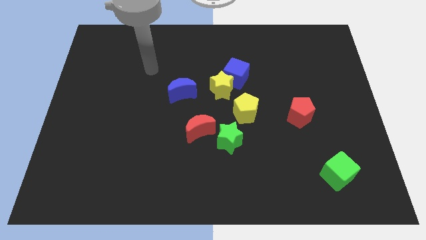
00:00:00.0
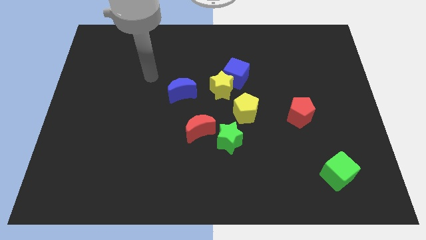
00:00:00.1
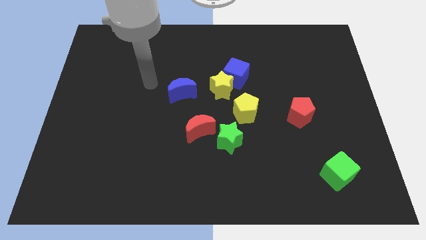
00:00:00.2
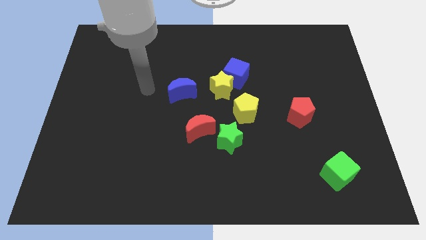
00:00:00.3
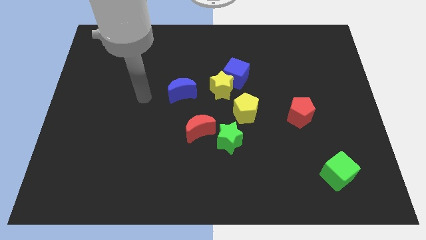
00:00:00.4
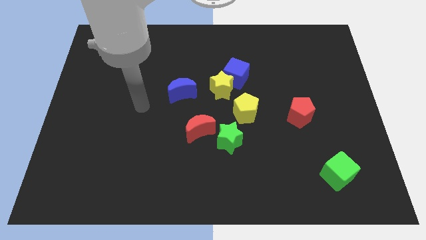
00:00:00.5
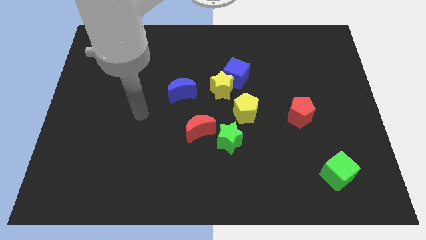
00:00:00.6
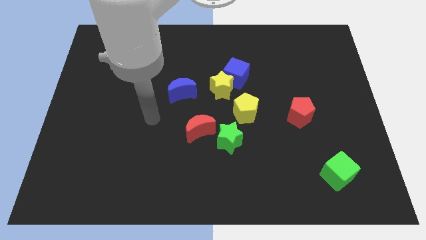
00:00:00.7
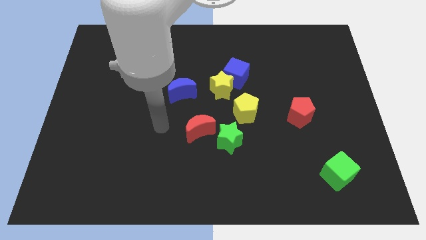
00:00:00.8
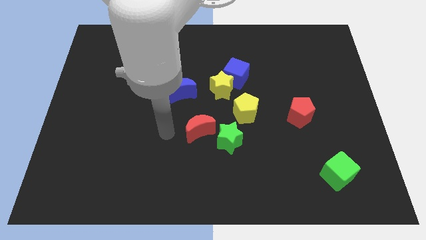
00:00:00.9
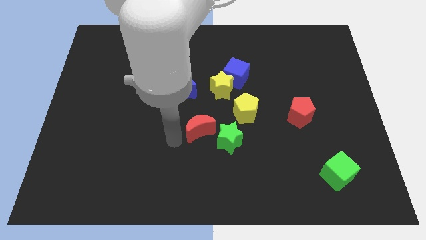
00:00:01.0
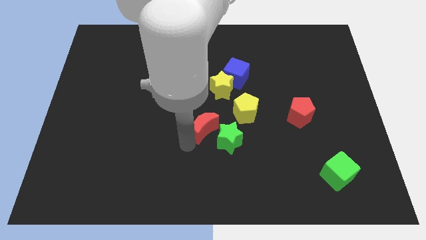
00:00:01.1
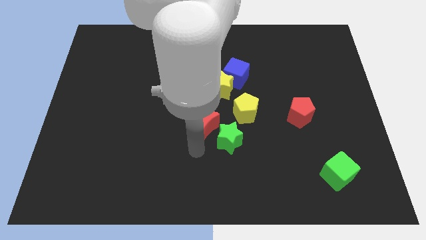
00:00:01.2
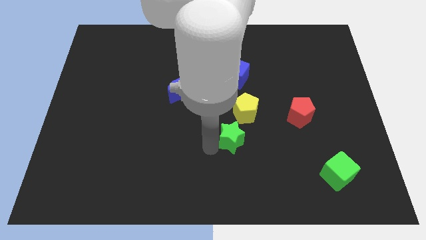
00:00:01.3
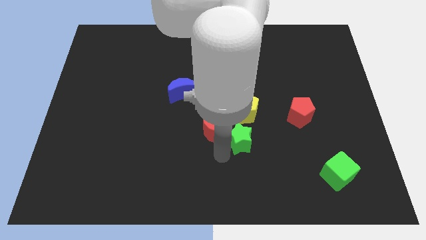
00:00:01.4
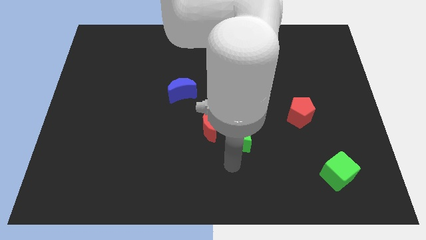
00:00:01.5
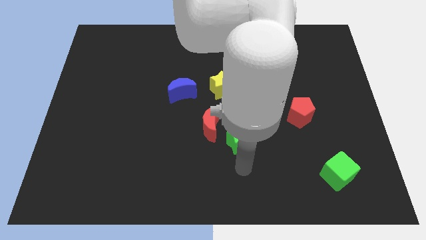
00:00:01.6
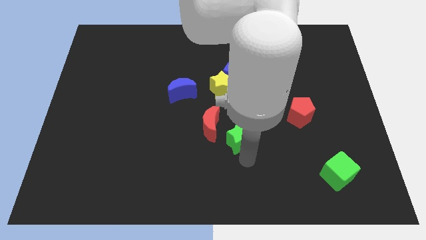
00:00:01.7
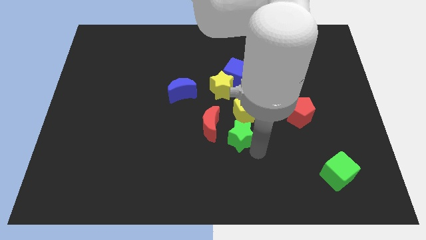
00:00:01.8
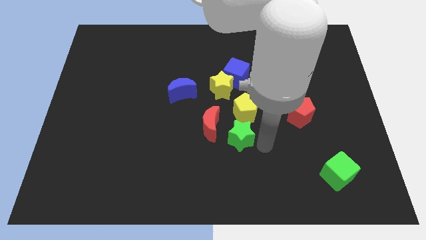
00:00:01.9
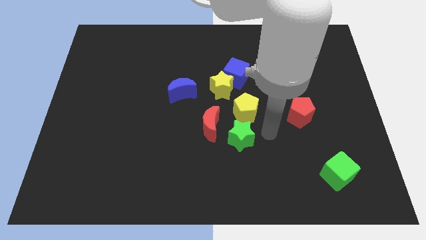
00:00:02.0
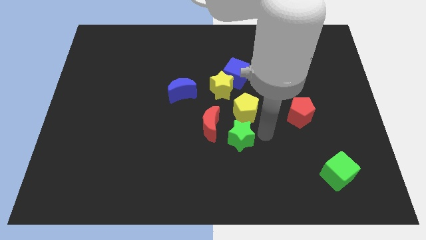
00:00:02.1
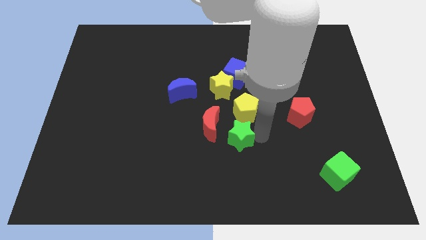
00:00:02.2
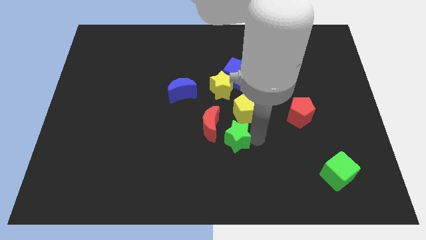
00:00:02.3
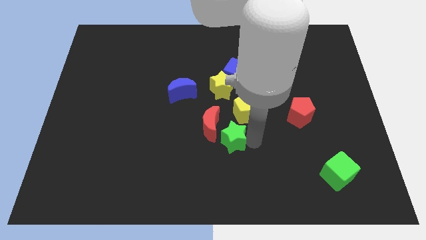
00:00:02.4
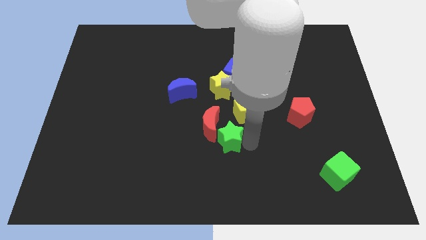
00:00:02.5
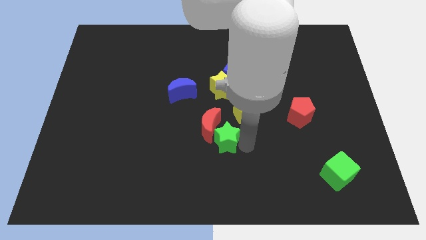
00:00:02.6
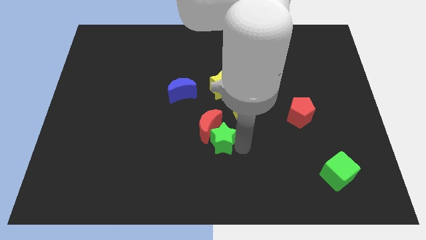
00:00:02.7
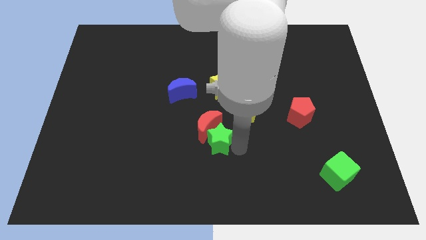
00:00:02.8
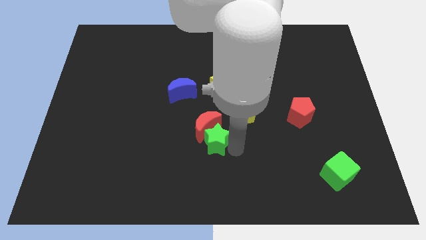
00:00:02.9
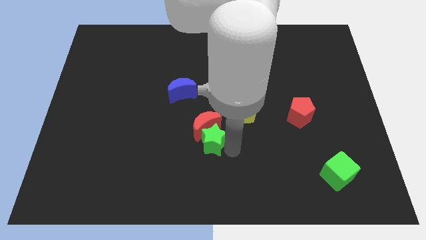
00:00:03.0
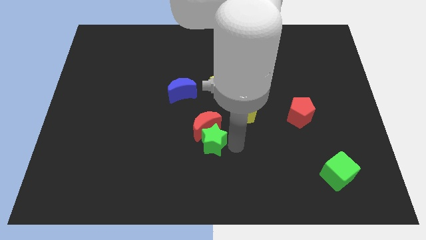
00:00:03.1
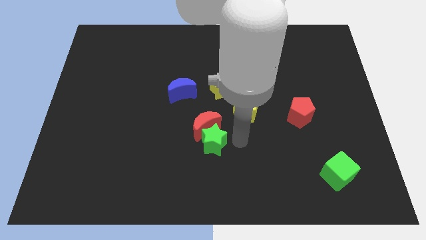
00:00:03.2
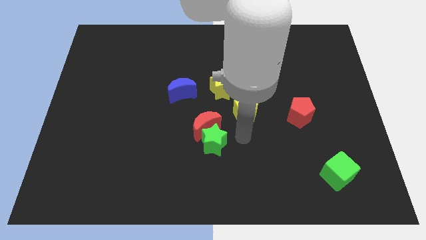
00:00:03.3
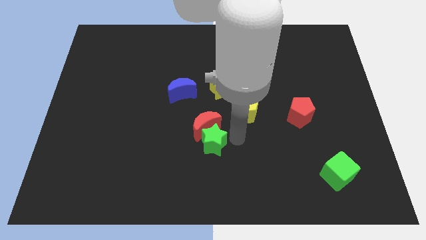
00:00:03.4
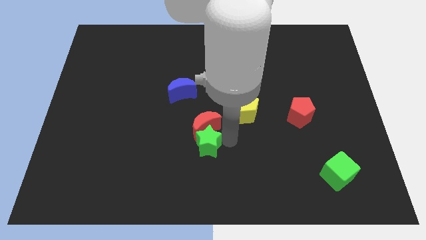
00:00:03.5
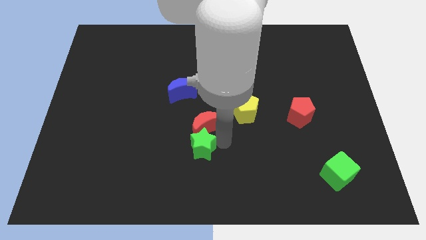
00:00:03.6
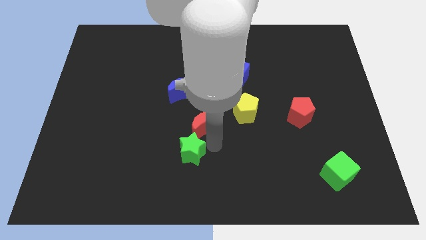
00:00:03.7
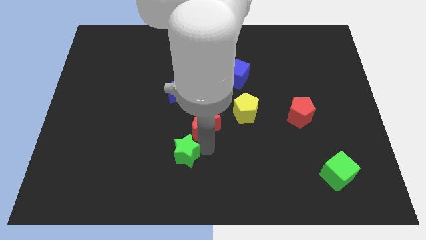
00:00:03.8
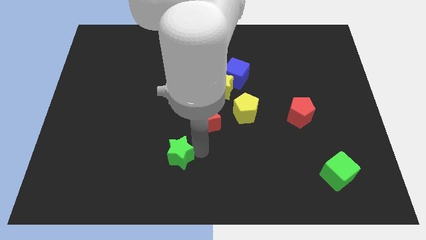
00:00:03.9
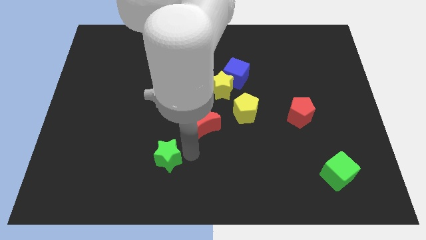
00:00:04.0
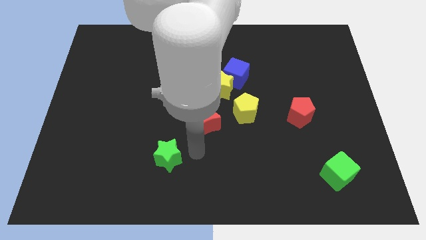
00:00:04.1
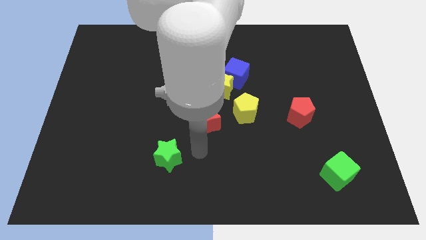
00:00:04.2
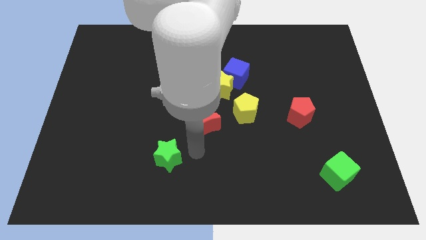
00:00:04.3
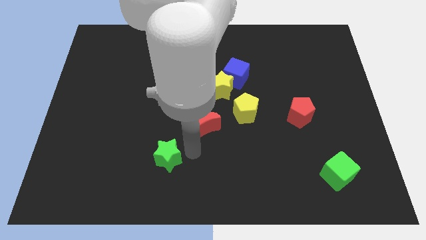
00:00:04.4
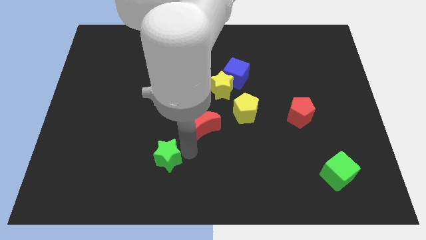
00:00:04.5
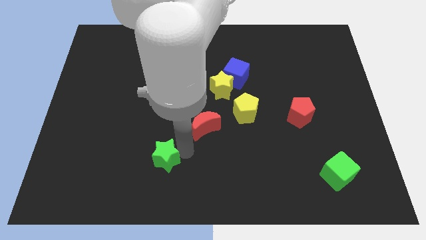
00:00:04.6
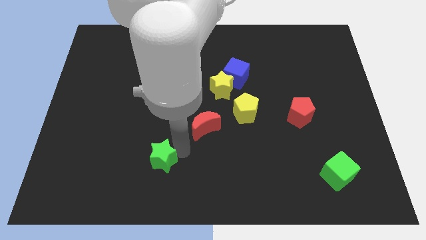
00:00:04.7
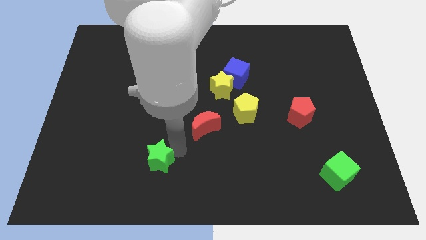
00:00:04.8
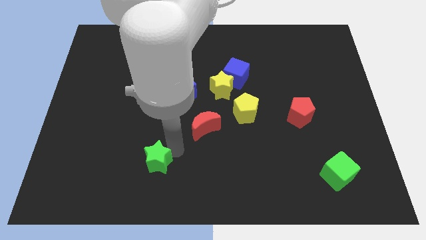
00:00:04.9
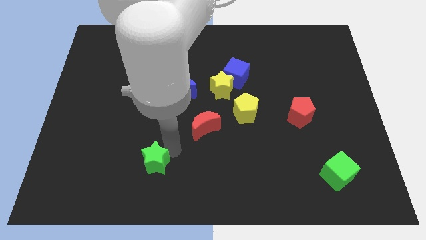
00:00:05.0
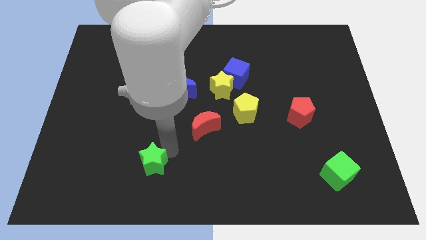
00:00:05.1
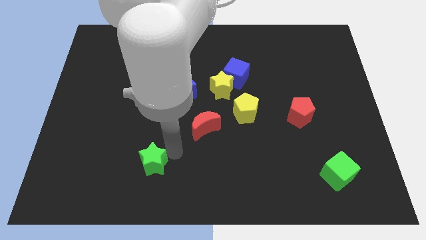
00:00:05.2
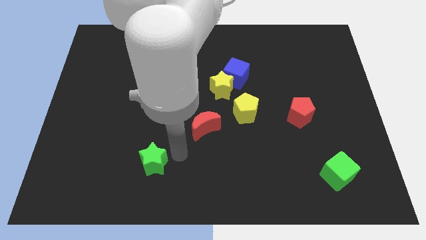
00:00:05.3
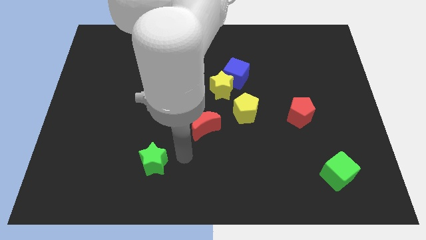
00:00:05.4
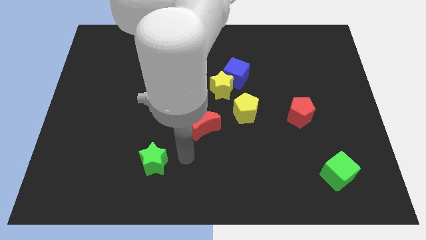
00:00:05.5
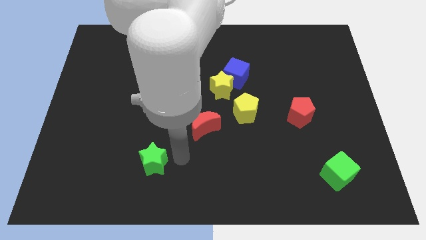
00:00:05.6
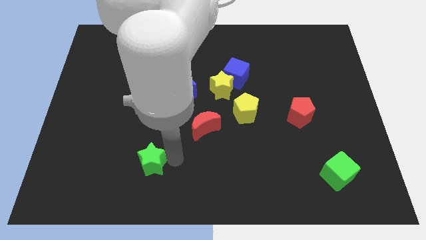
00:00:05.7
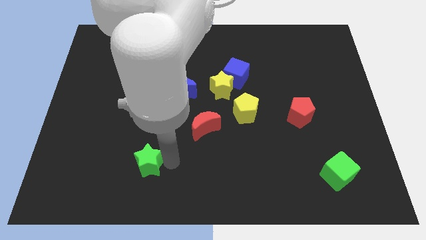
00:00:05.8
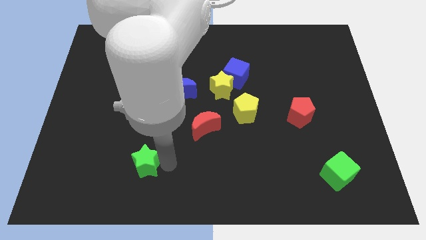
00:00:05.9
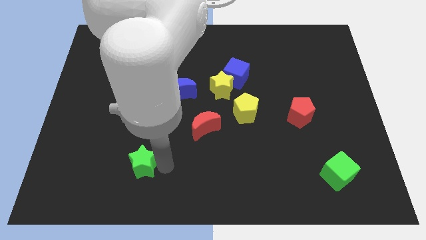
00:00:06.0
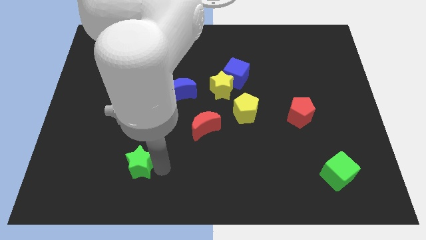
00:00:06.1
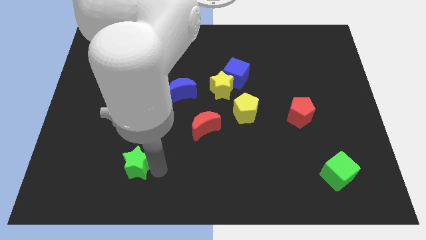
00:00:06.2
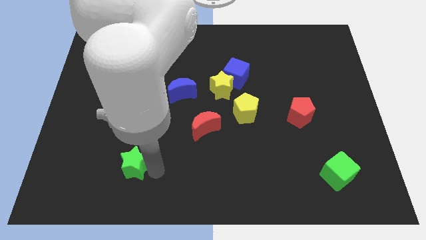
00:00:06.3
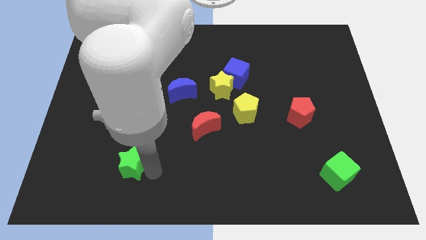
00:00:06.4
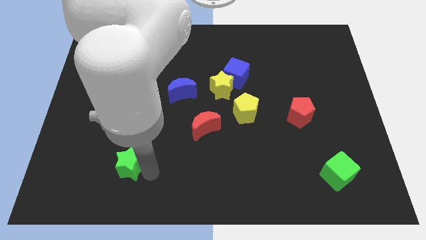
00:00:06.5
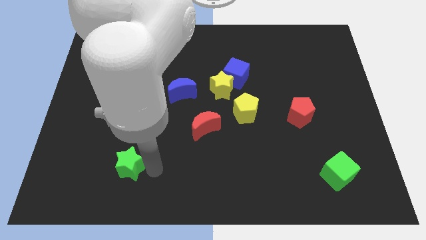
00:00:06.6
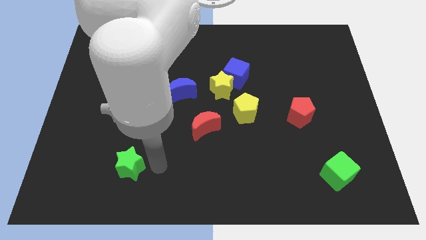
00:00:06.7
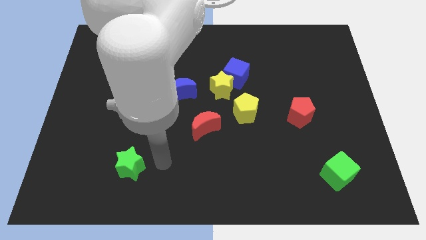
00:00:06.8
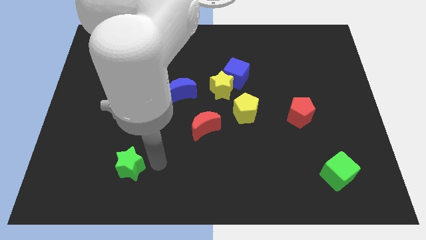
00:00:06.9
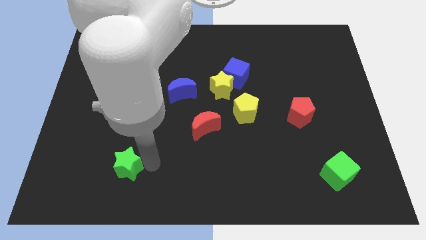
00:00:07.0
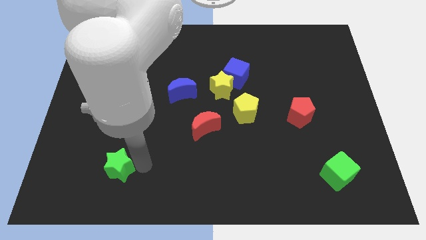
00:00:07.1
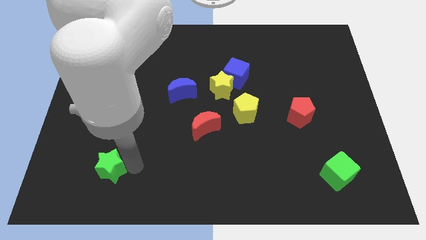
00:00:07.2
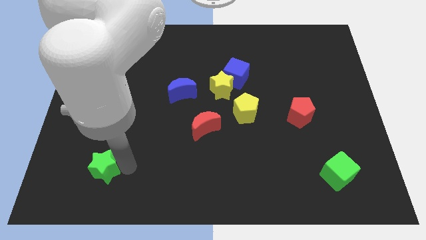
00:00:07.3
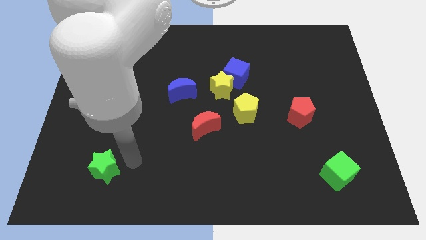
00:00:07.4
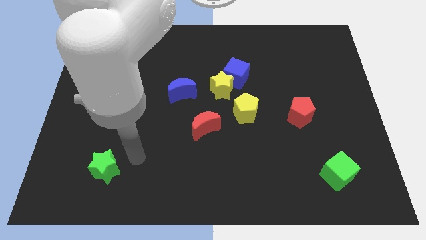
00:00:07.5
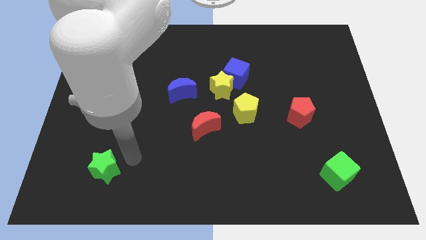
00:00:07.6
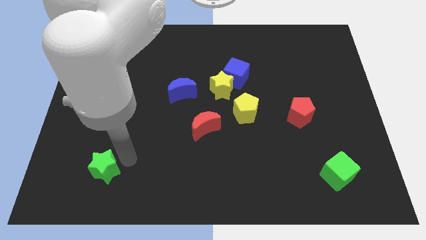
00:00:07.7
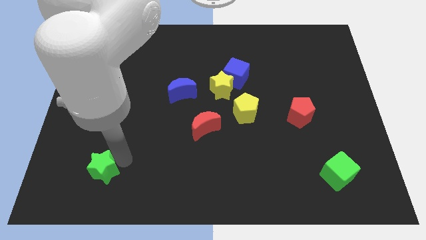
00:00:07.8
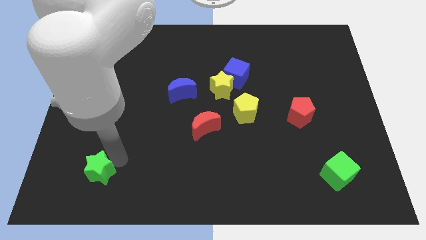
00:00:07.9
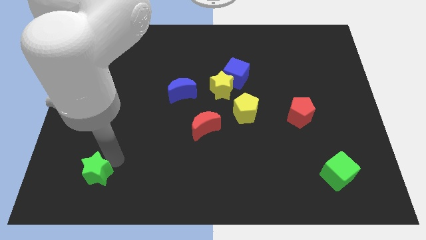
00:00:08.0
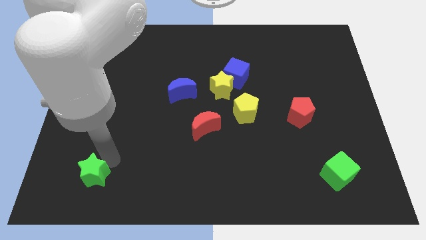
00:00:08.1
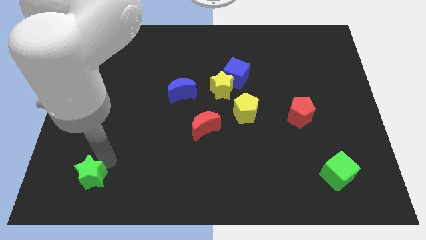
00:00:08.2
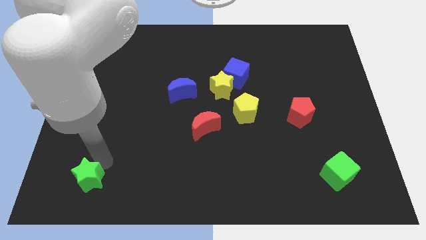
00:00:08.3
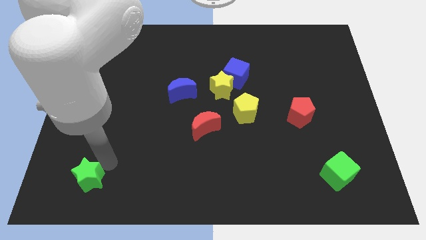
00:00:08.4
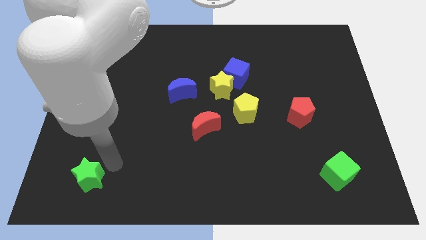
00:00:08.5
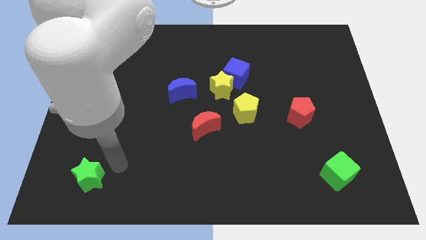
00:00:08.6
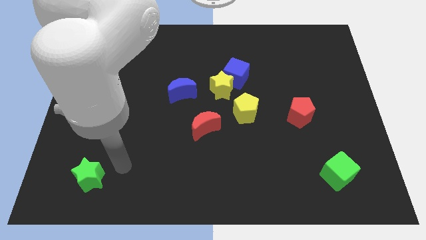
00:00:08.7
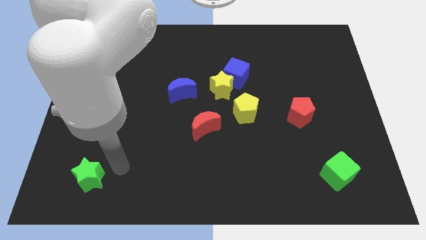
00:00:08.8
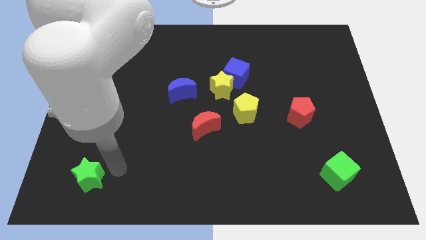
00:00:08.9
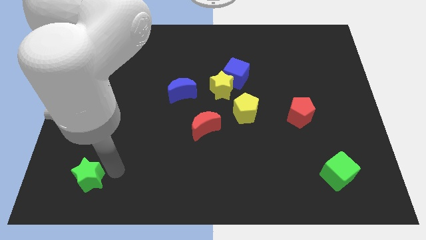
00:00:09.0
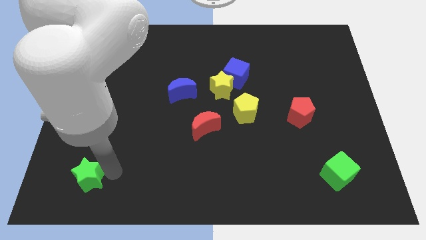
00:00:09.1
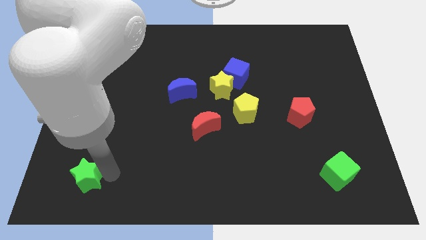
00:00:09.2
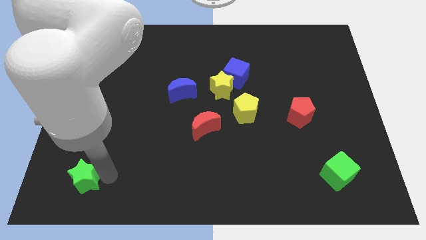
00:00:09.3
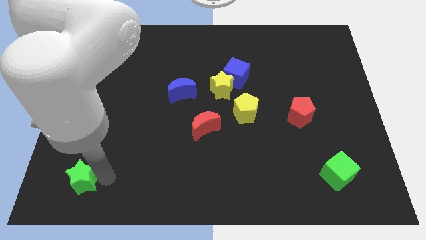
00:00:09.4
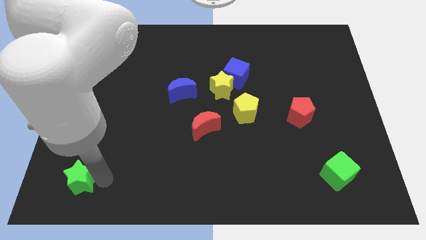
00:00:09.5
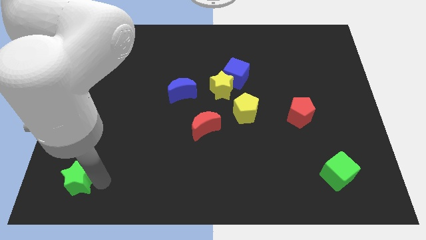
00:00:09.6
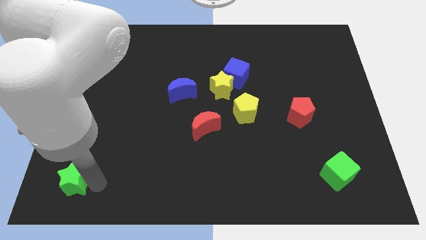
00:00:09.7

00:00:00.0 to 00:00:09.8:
push the green star to the bottom left corner
